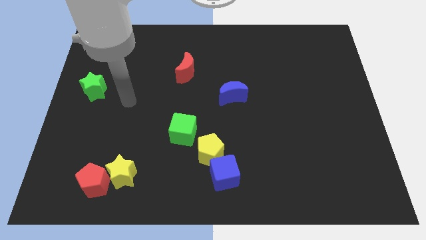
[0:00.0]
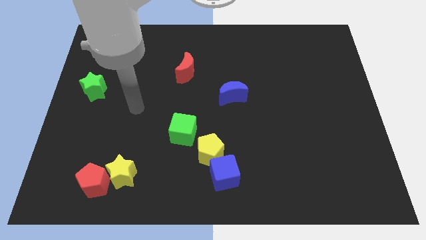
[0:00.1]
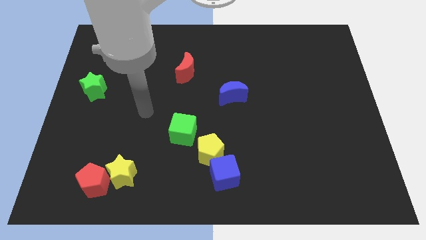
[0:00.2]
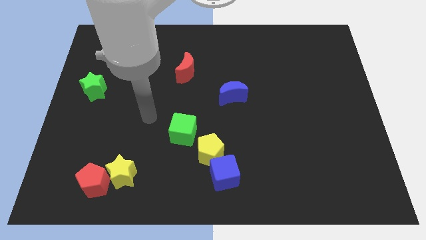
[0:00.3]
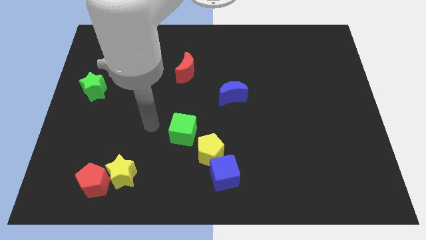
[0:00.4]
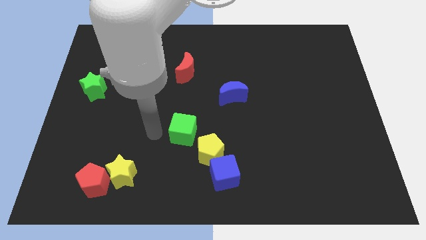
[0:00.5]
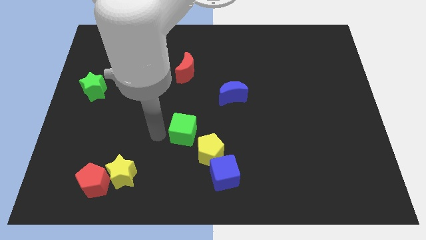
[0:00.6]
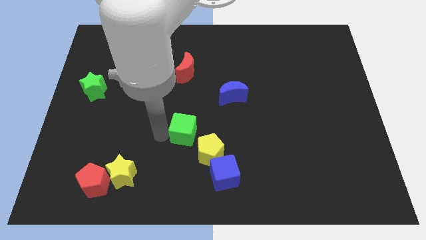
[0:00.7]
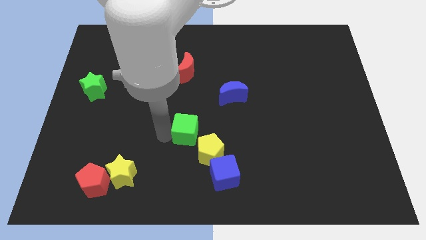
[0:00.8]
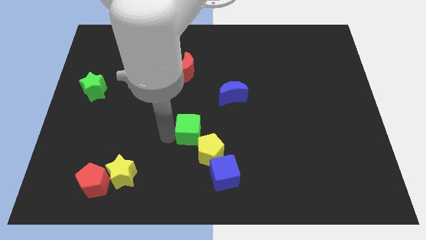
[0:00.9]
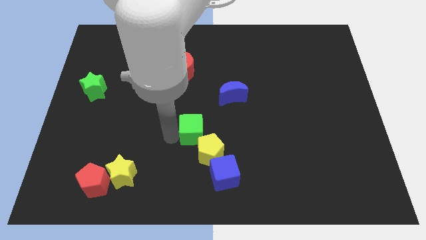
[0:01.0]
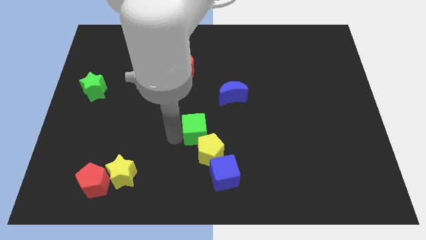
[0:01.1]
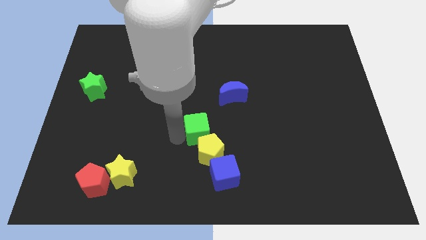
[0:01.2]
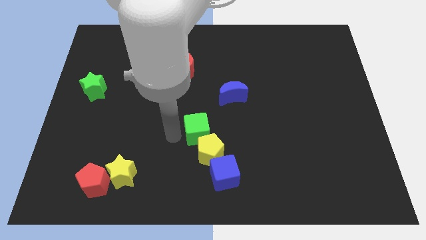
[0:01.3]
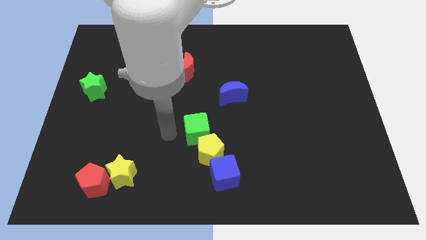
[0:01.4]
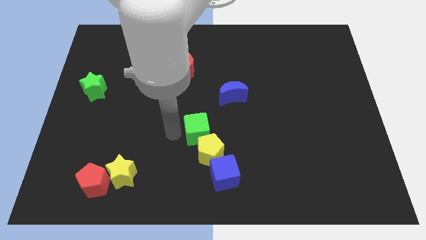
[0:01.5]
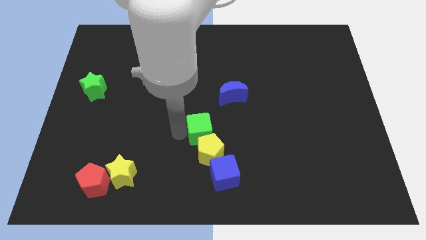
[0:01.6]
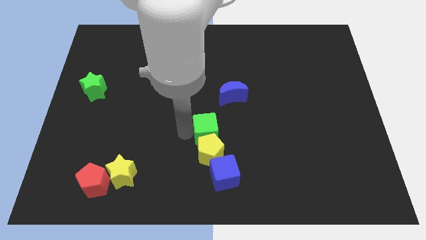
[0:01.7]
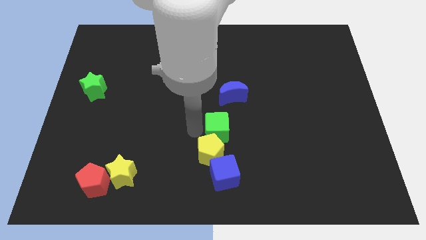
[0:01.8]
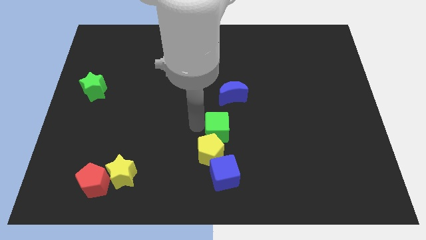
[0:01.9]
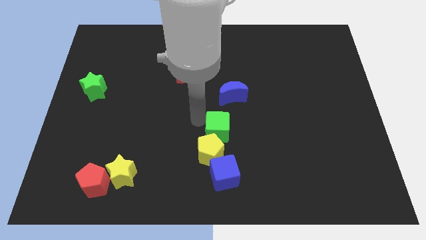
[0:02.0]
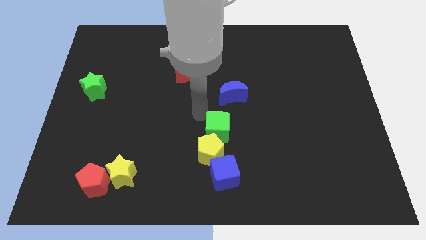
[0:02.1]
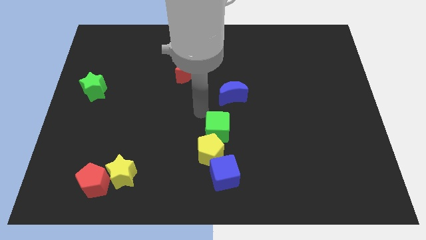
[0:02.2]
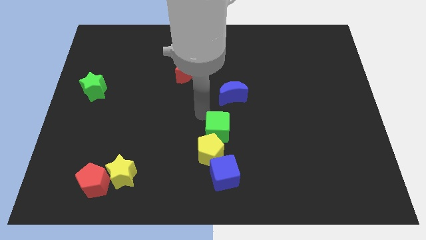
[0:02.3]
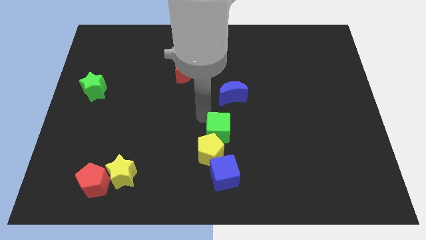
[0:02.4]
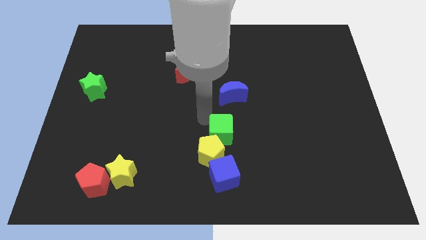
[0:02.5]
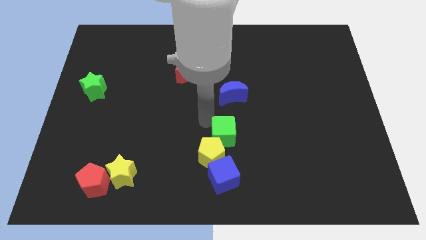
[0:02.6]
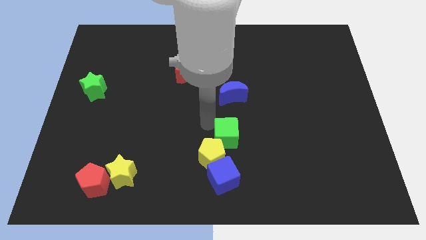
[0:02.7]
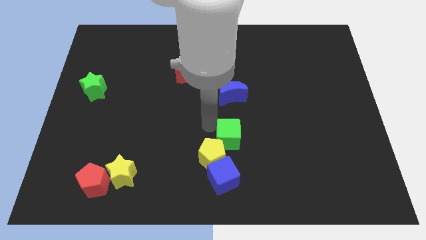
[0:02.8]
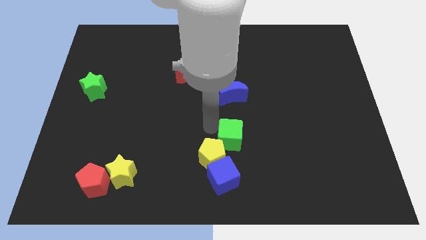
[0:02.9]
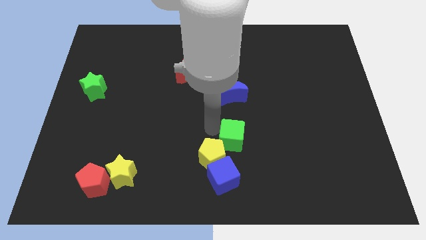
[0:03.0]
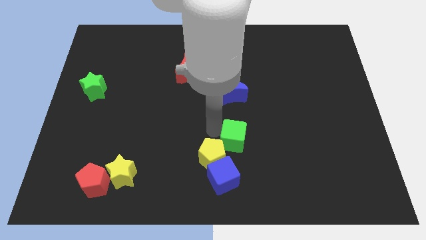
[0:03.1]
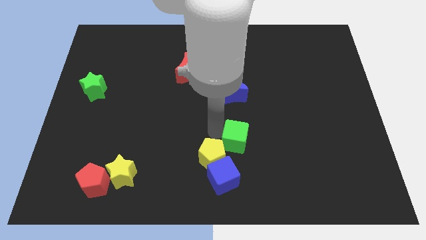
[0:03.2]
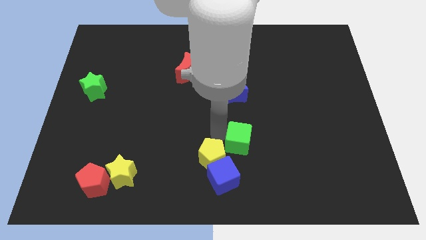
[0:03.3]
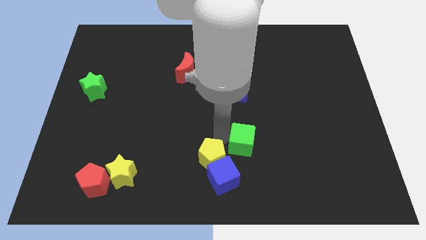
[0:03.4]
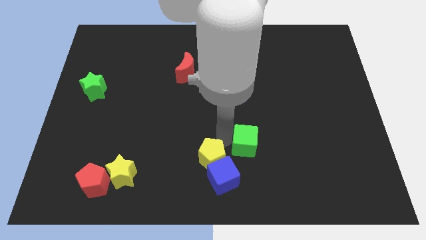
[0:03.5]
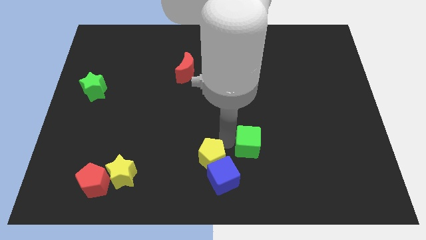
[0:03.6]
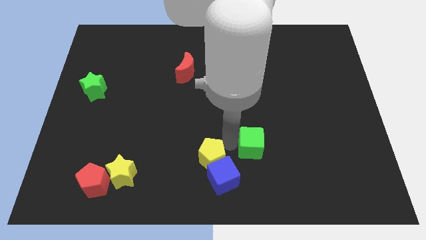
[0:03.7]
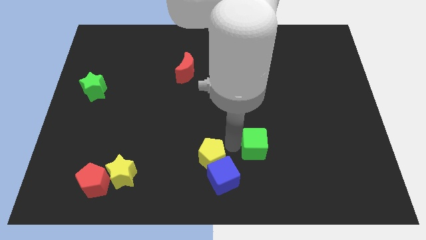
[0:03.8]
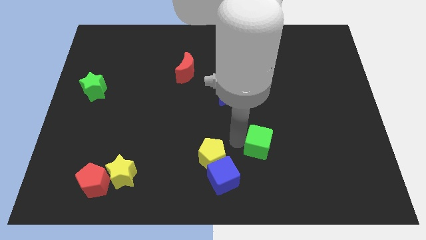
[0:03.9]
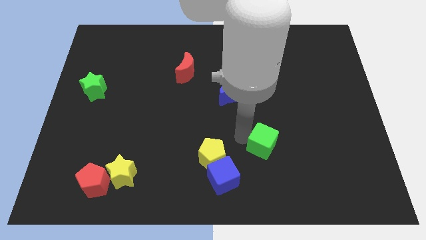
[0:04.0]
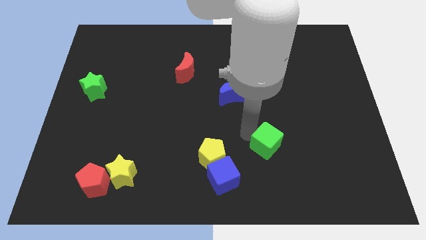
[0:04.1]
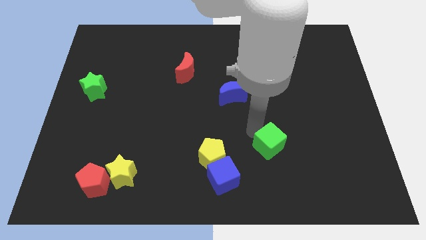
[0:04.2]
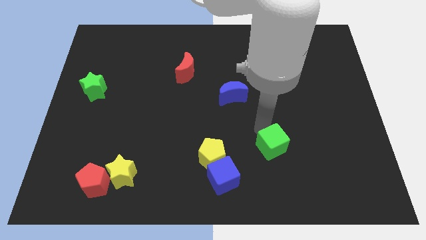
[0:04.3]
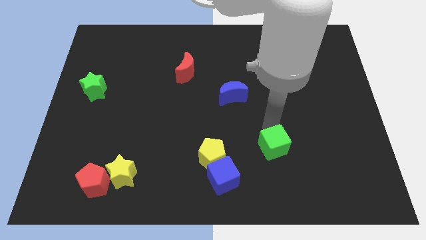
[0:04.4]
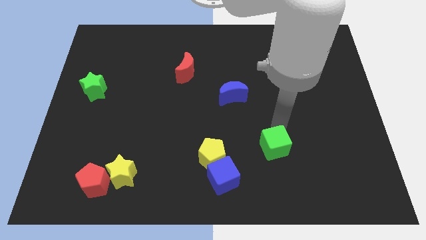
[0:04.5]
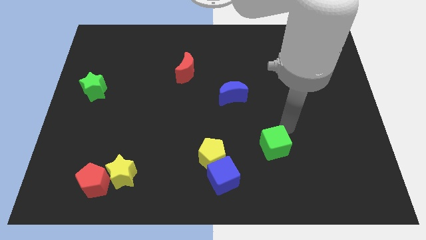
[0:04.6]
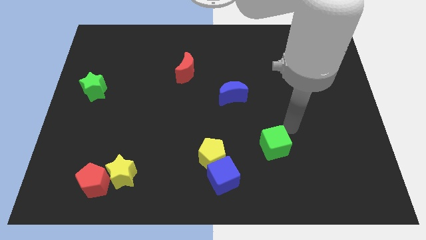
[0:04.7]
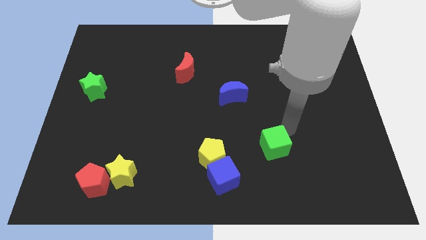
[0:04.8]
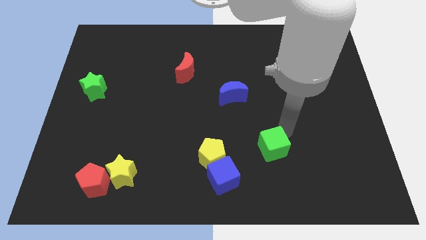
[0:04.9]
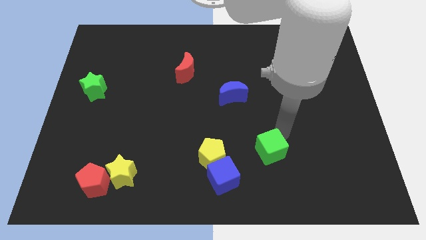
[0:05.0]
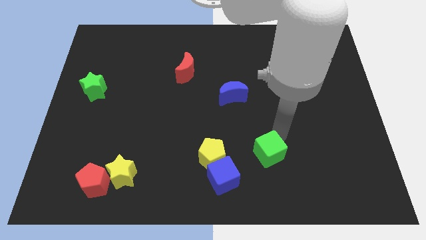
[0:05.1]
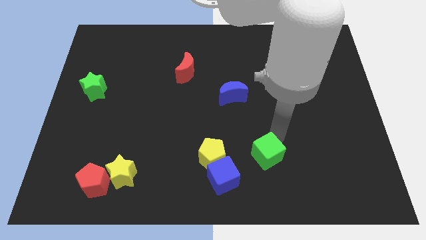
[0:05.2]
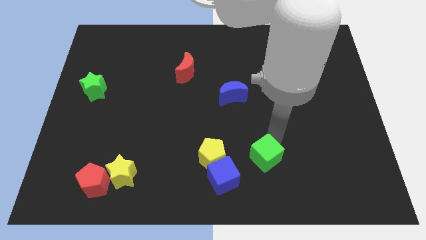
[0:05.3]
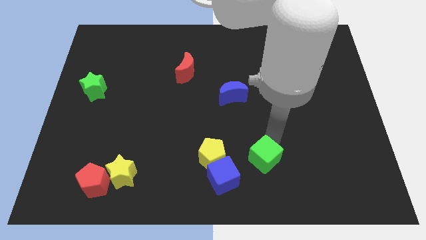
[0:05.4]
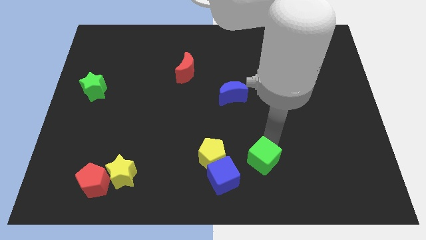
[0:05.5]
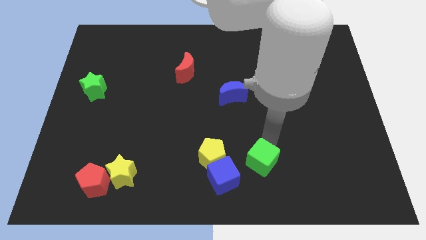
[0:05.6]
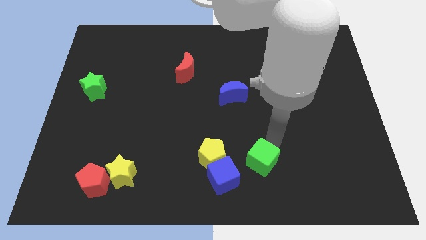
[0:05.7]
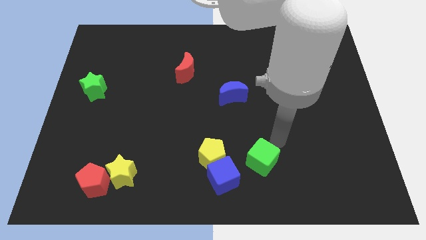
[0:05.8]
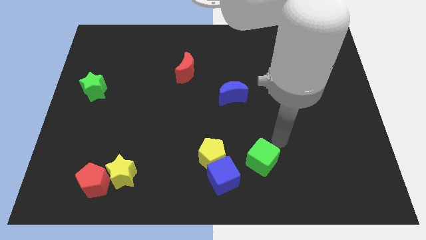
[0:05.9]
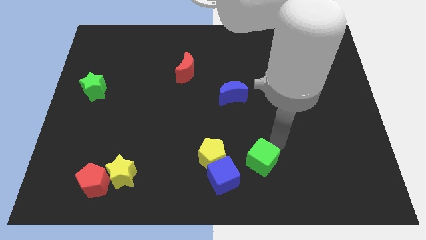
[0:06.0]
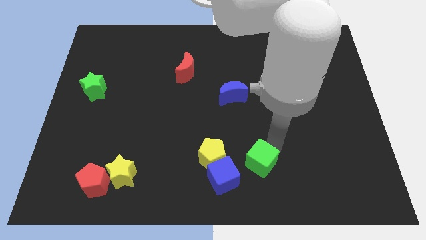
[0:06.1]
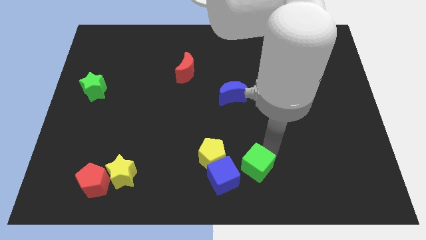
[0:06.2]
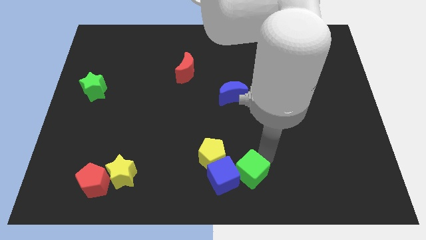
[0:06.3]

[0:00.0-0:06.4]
move the green cube to the bottom right side of the yellow pentagon

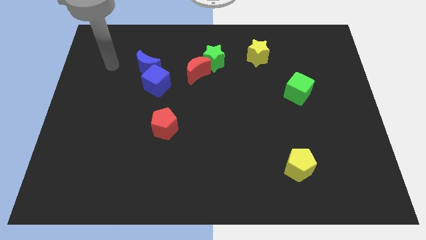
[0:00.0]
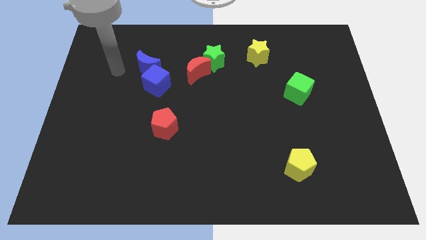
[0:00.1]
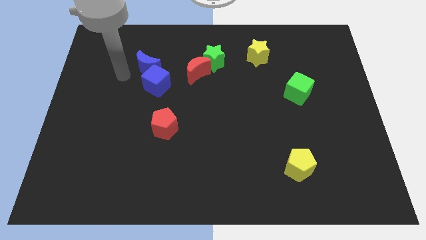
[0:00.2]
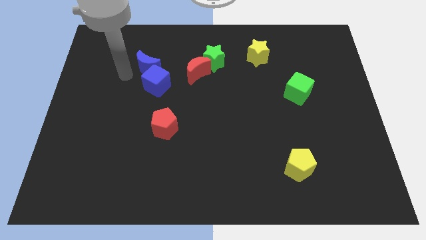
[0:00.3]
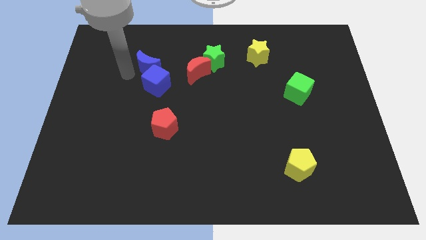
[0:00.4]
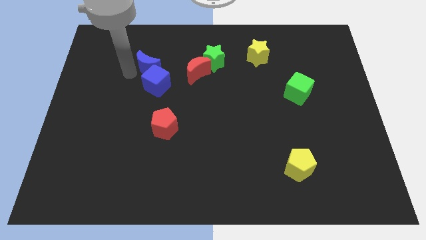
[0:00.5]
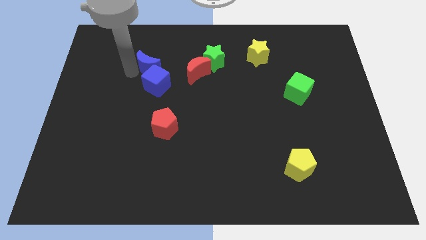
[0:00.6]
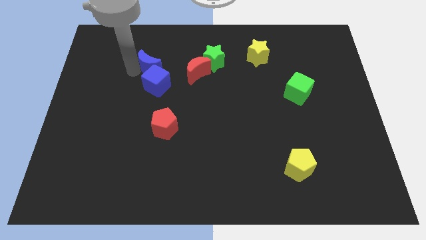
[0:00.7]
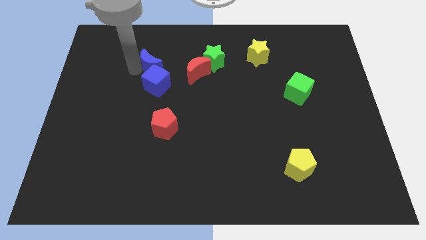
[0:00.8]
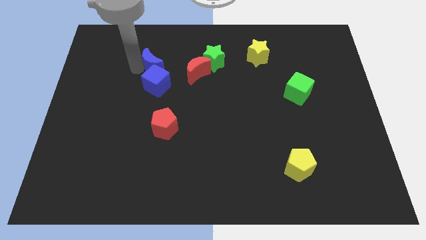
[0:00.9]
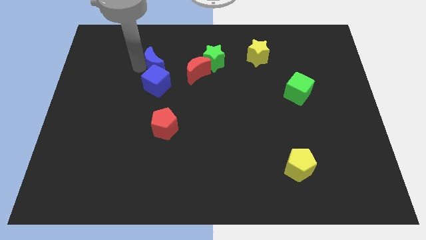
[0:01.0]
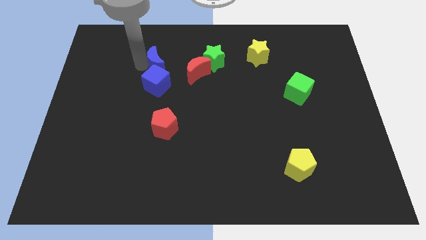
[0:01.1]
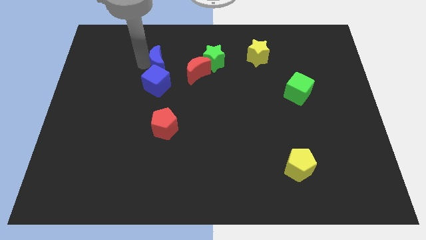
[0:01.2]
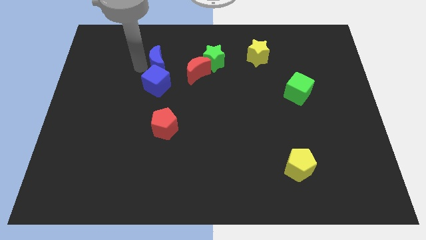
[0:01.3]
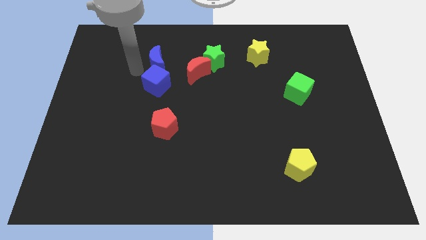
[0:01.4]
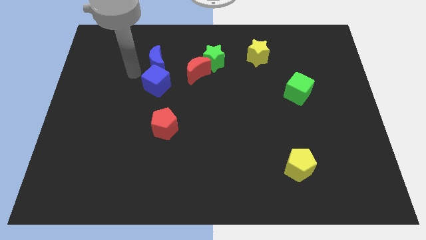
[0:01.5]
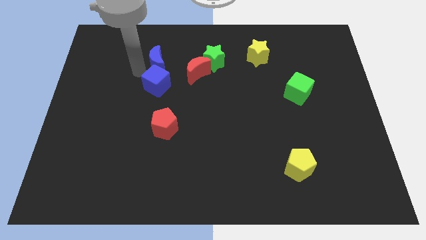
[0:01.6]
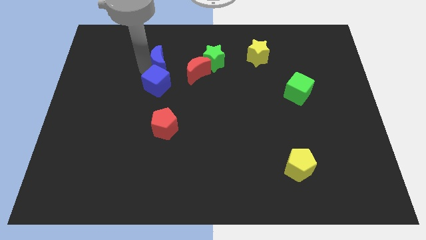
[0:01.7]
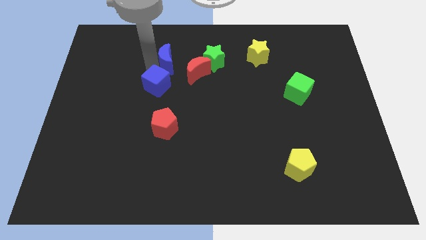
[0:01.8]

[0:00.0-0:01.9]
push the blue moon diagonally up and to the left of the red moon
